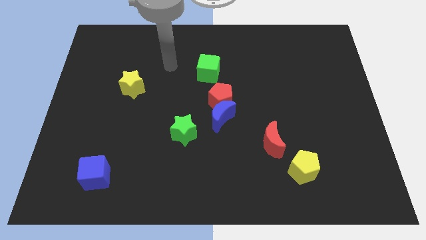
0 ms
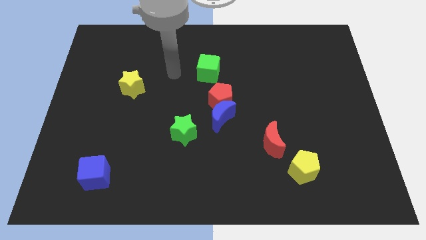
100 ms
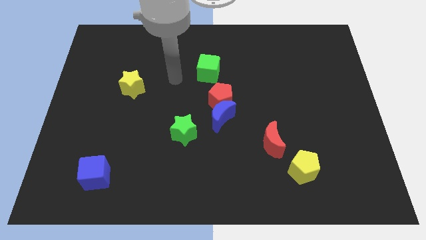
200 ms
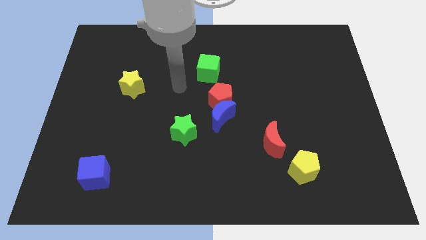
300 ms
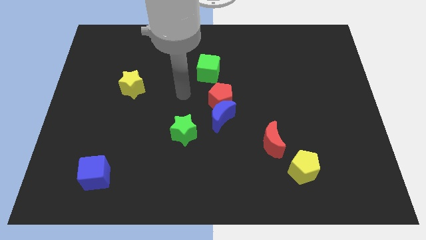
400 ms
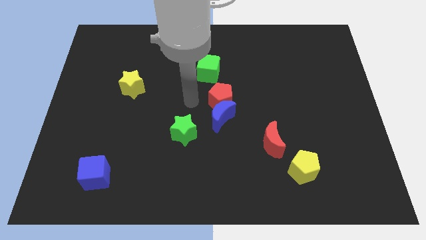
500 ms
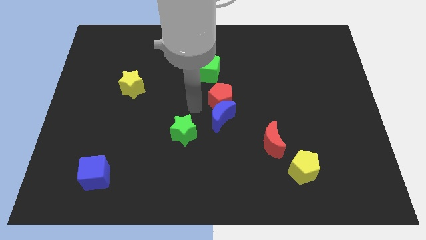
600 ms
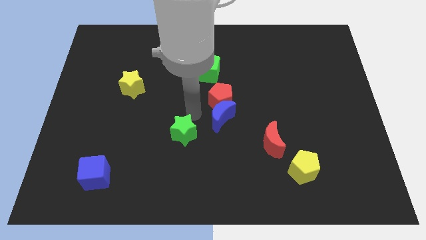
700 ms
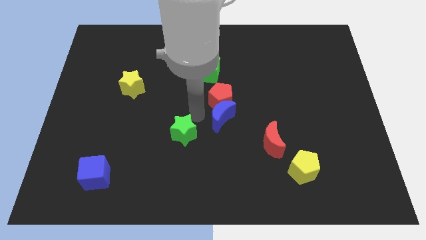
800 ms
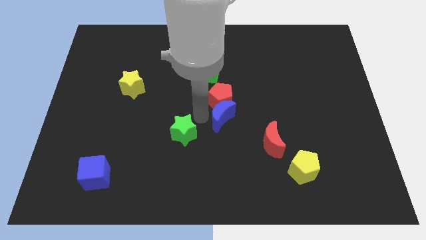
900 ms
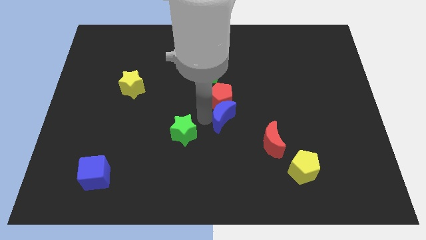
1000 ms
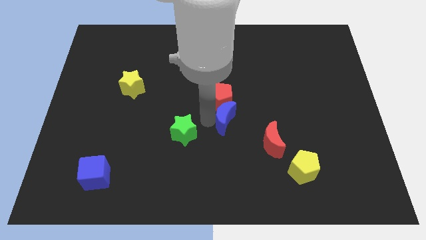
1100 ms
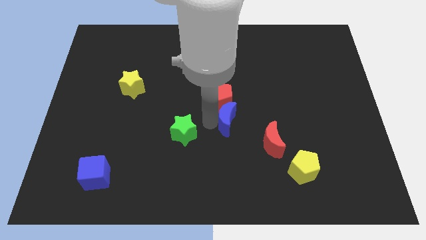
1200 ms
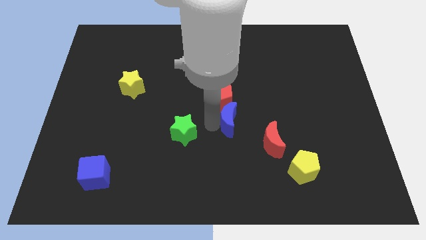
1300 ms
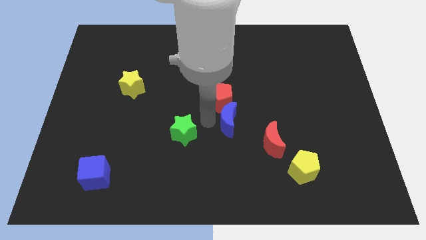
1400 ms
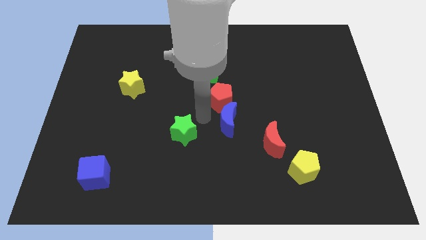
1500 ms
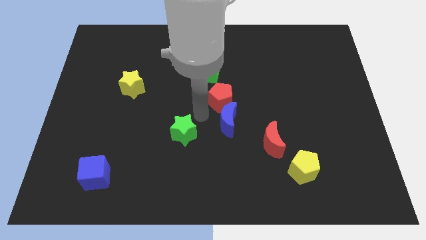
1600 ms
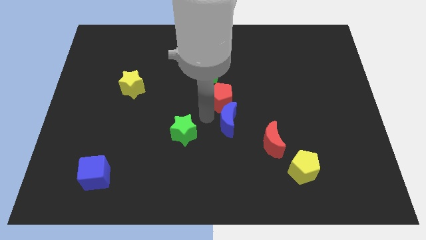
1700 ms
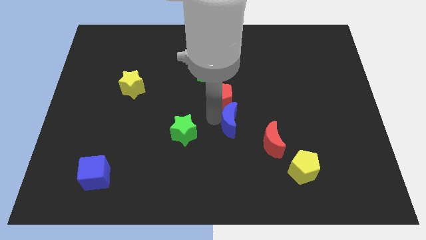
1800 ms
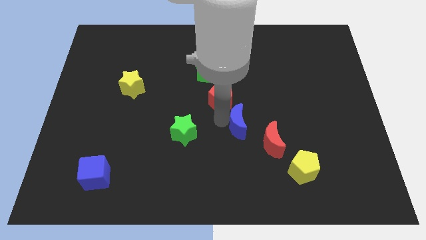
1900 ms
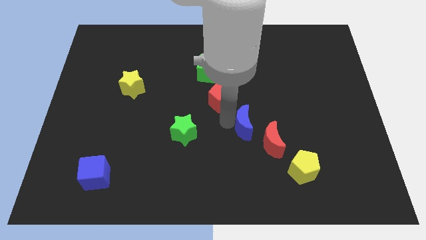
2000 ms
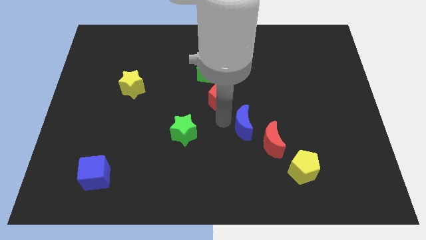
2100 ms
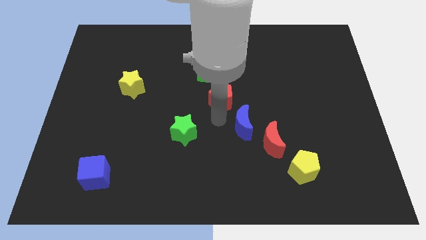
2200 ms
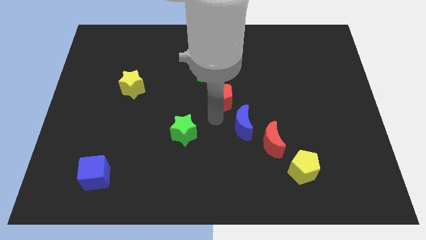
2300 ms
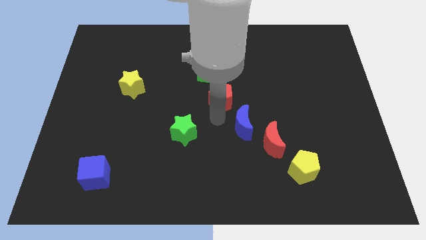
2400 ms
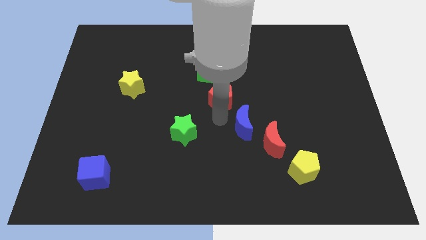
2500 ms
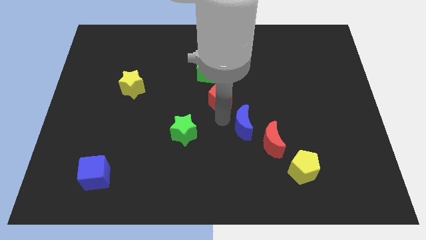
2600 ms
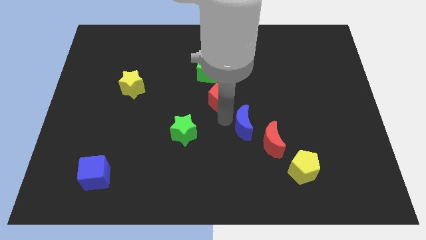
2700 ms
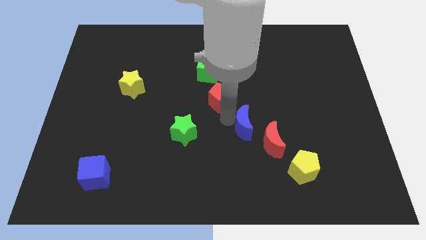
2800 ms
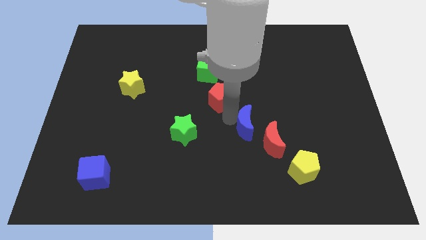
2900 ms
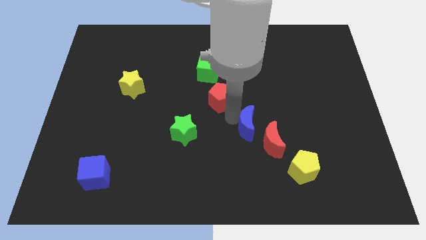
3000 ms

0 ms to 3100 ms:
move the blue moon away from the red pentagon and green star

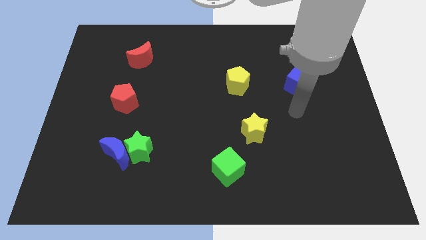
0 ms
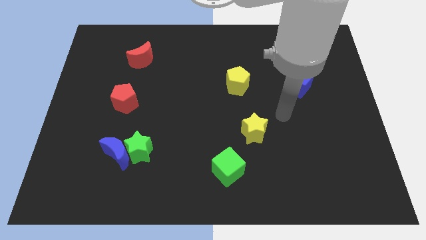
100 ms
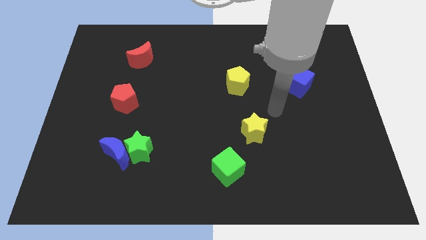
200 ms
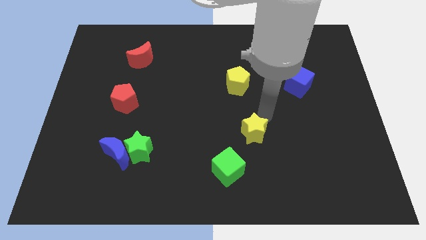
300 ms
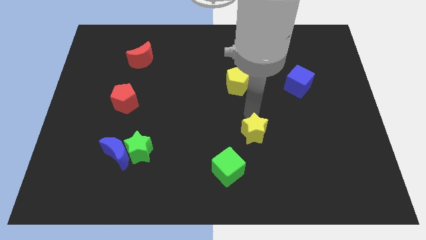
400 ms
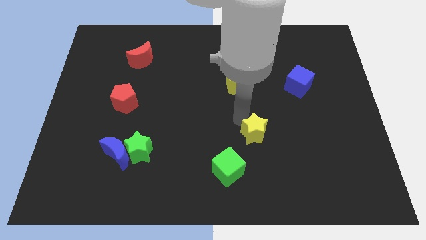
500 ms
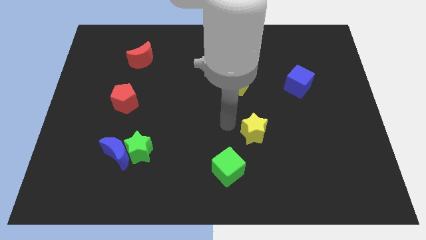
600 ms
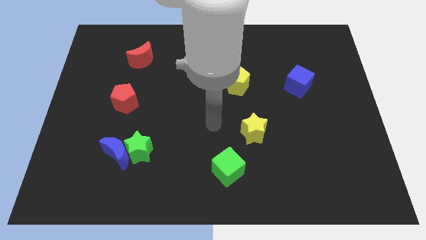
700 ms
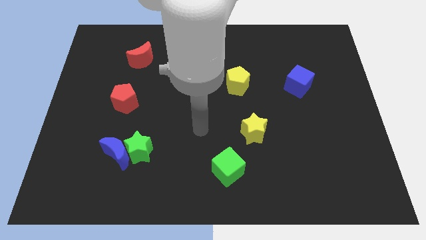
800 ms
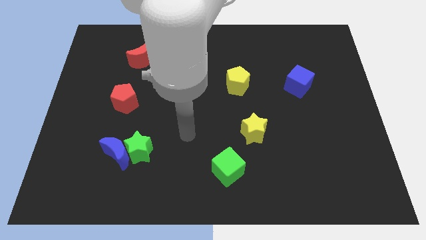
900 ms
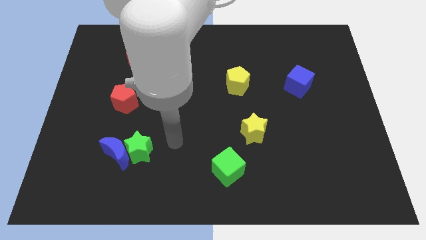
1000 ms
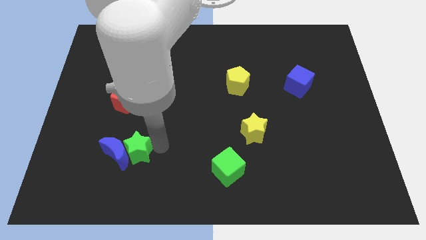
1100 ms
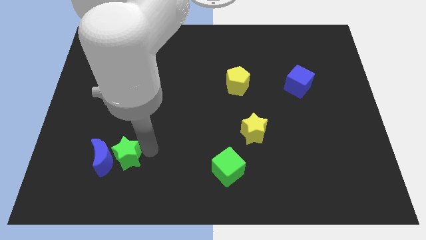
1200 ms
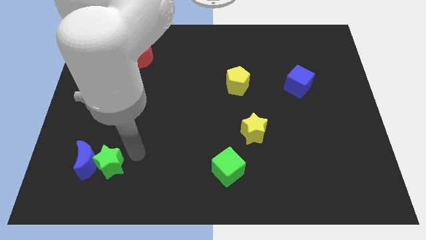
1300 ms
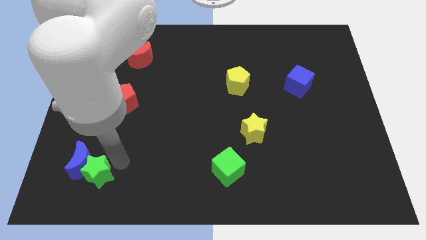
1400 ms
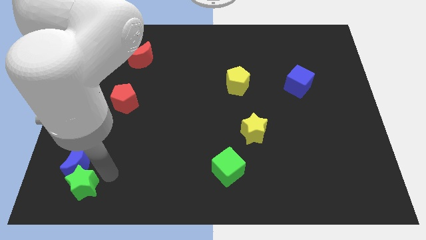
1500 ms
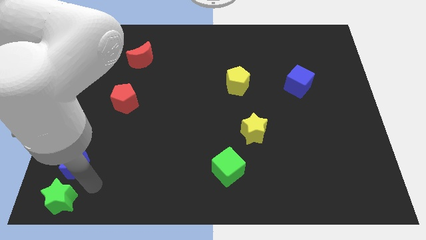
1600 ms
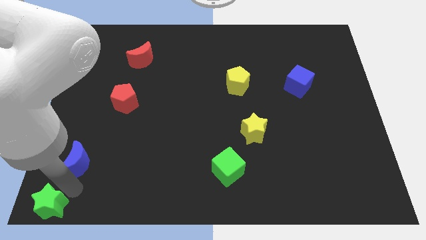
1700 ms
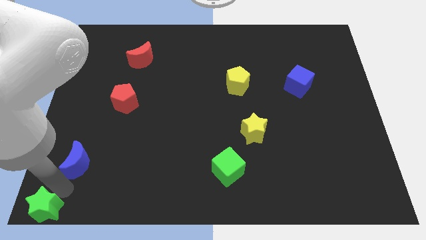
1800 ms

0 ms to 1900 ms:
pull the blue moon apart from the green star

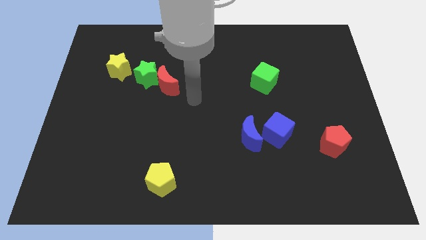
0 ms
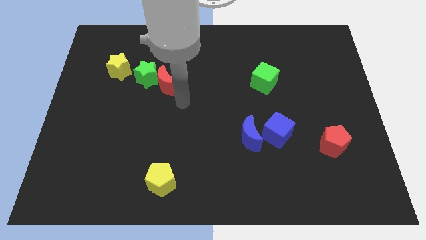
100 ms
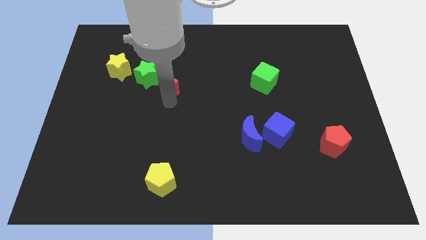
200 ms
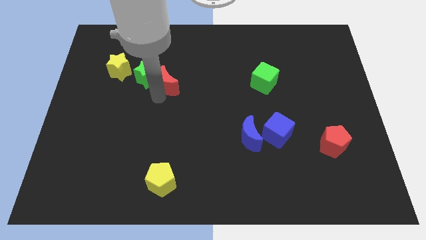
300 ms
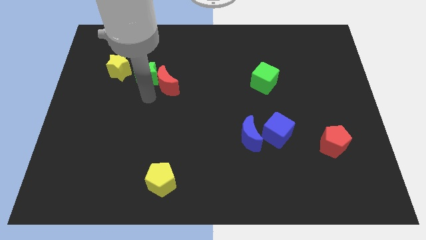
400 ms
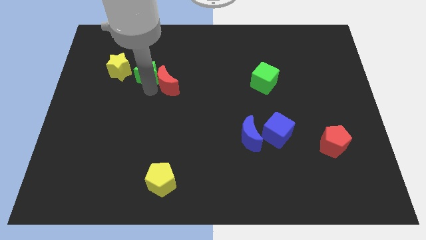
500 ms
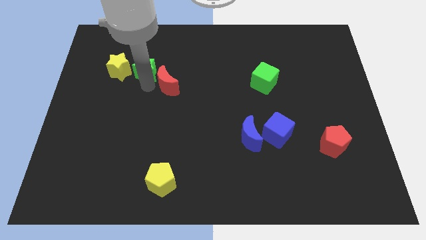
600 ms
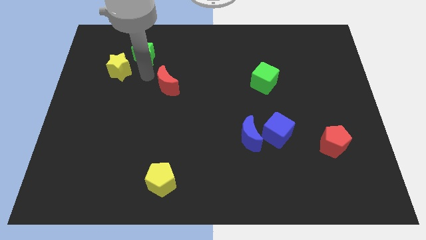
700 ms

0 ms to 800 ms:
separate the red moon from the green star

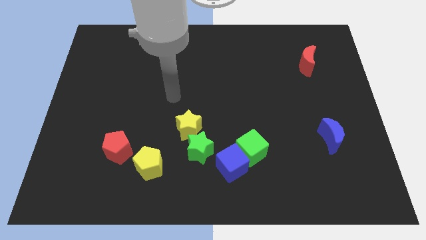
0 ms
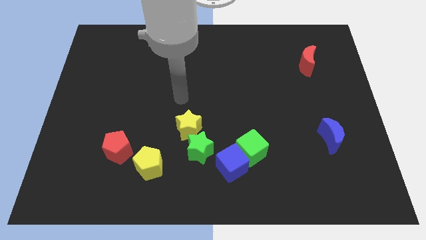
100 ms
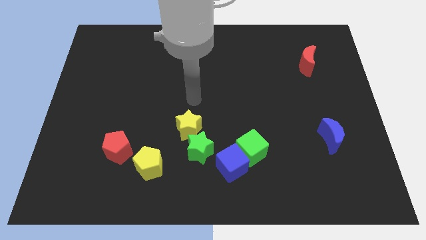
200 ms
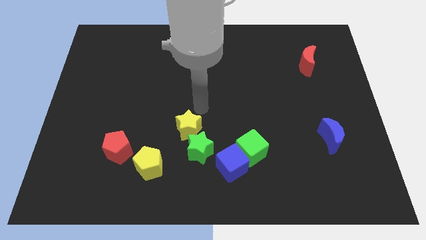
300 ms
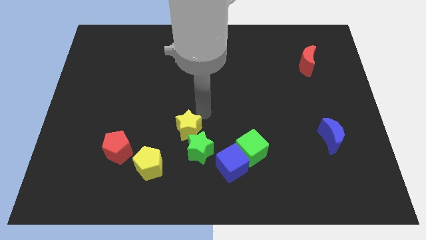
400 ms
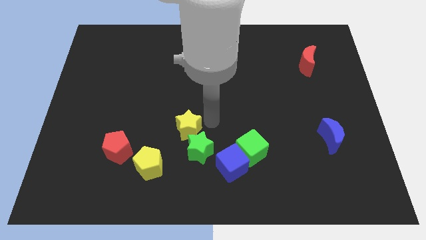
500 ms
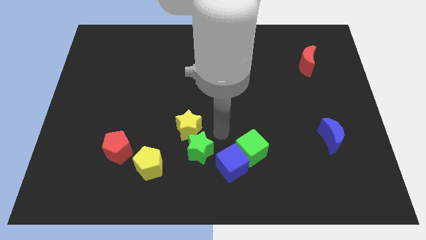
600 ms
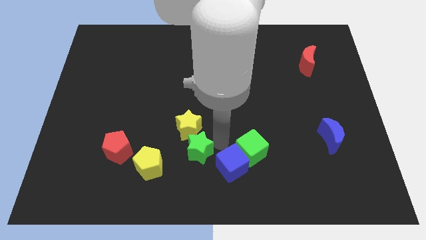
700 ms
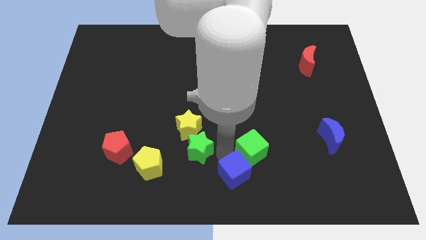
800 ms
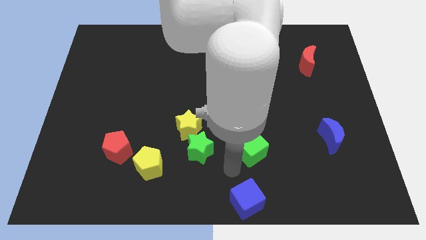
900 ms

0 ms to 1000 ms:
separate the green cube from the blue cube

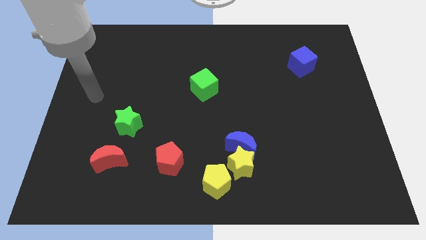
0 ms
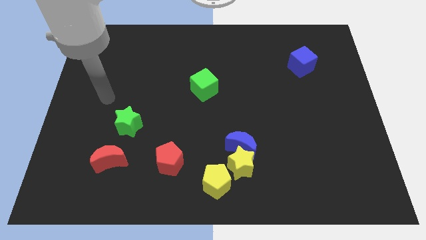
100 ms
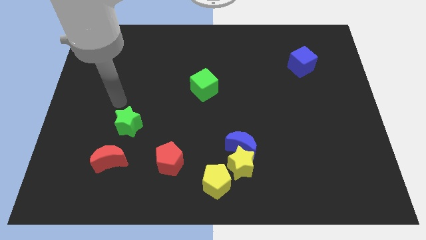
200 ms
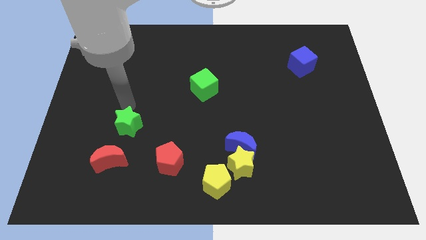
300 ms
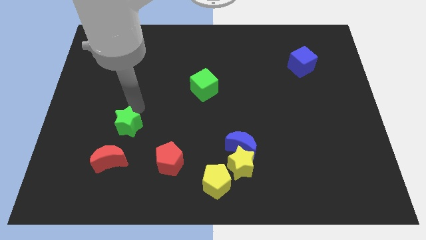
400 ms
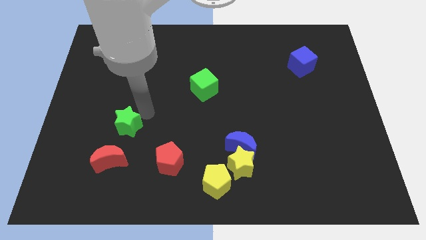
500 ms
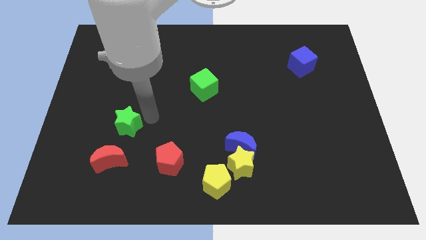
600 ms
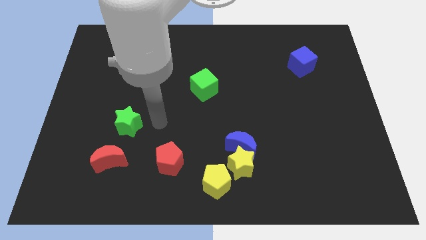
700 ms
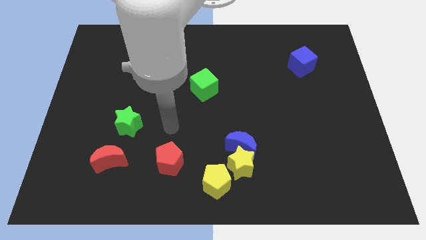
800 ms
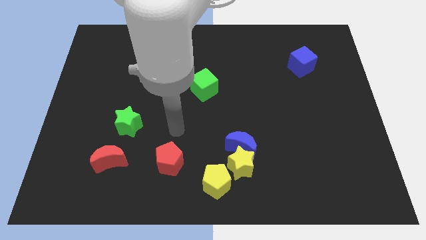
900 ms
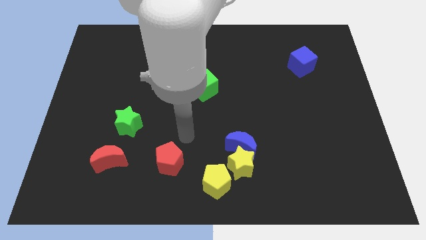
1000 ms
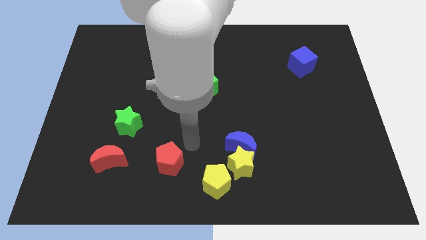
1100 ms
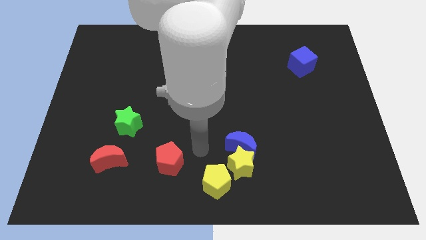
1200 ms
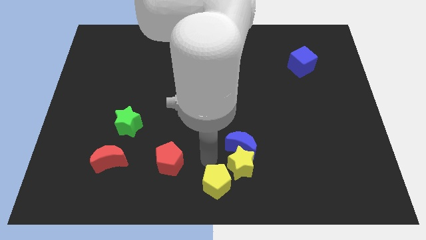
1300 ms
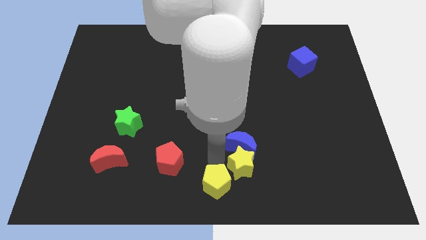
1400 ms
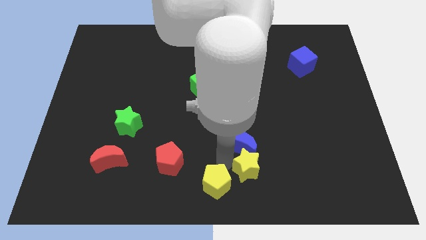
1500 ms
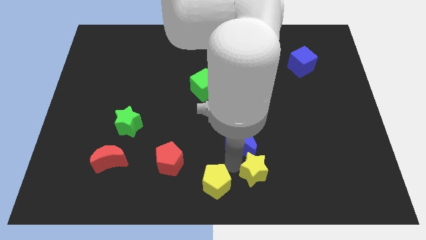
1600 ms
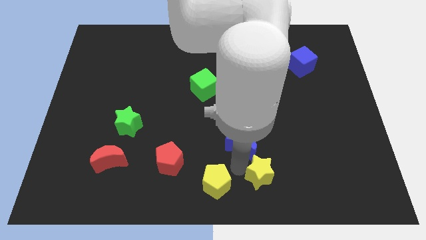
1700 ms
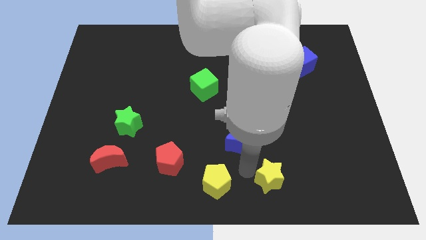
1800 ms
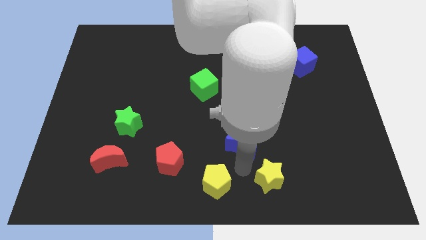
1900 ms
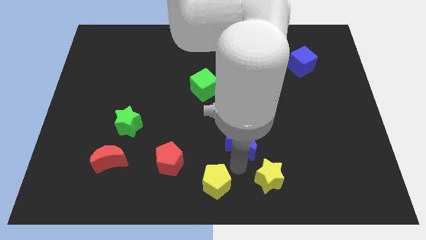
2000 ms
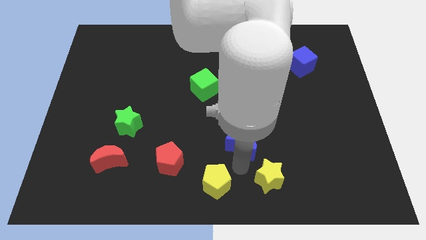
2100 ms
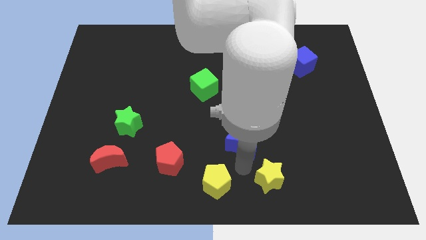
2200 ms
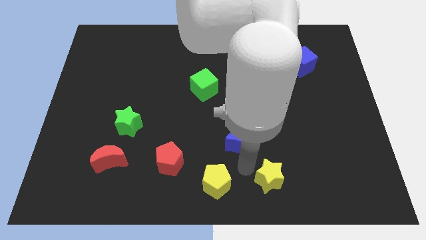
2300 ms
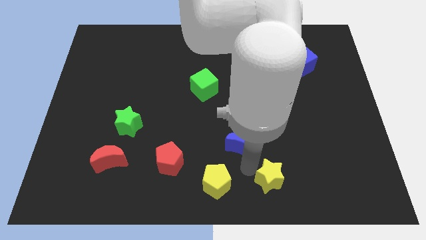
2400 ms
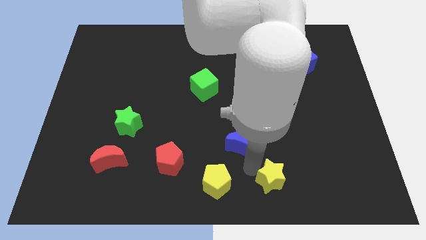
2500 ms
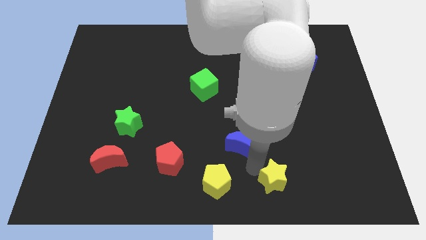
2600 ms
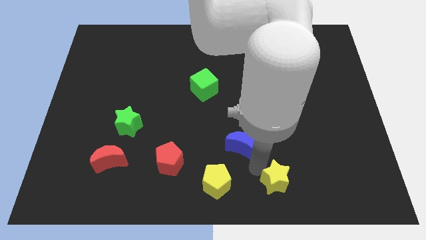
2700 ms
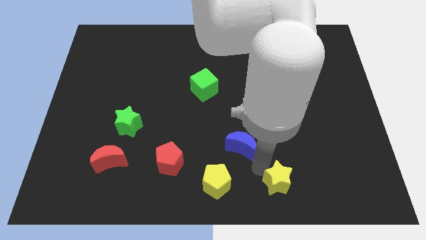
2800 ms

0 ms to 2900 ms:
pull the yellow star apart from the blue moon and yellow pentagon
